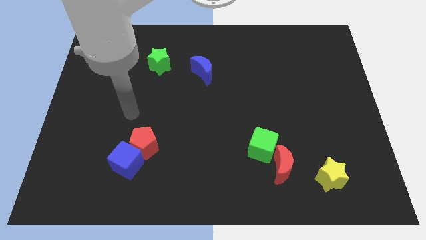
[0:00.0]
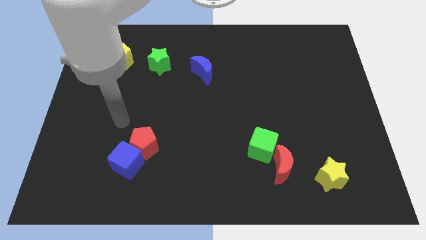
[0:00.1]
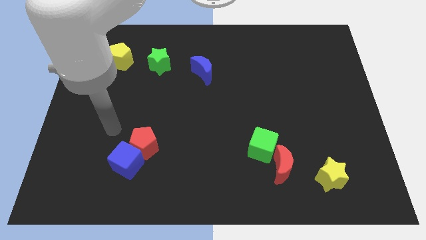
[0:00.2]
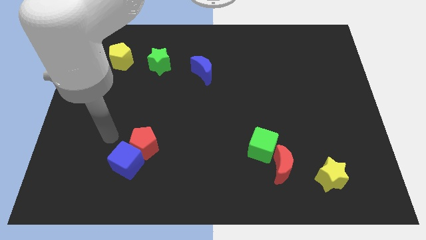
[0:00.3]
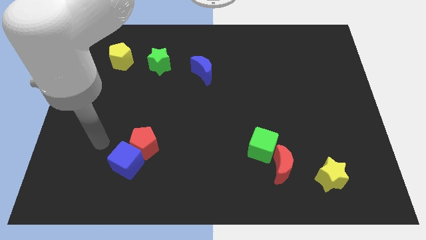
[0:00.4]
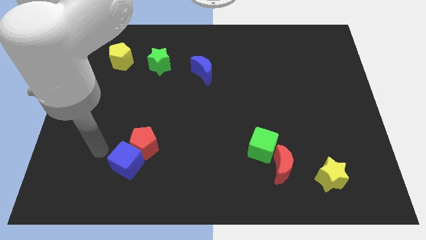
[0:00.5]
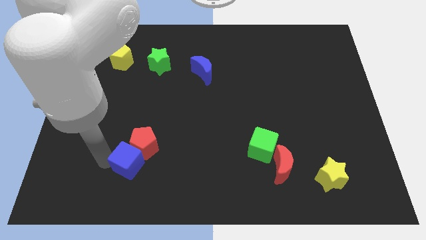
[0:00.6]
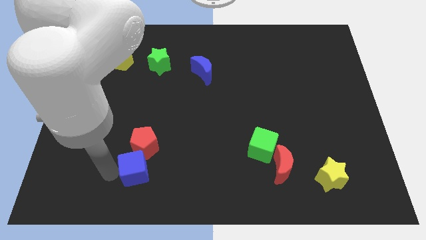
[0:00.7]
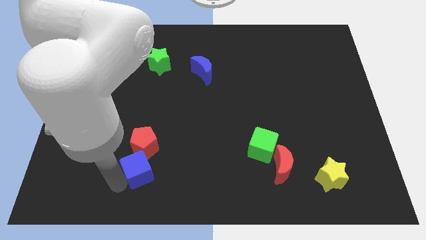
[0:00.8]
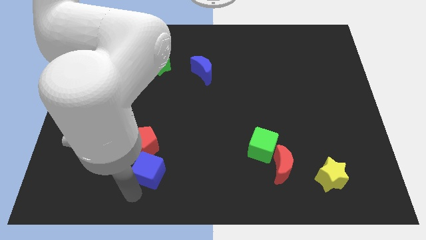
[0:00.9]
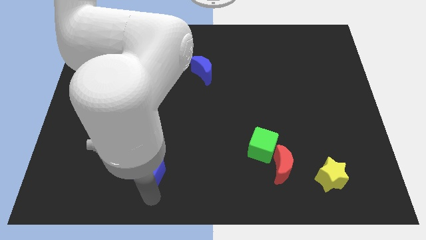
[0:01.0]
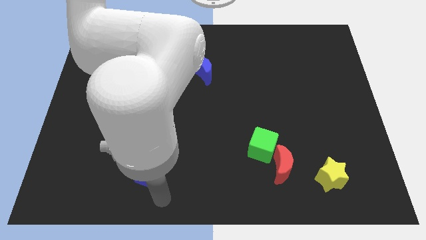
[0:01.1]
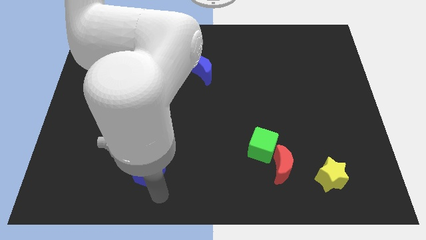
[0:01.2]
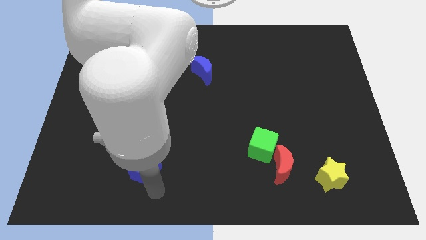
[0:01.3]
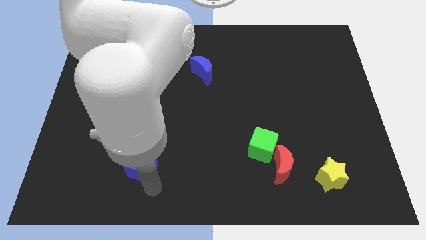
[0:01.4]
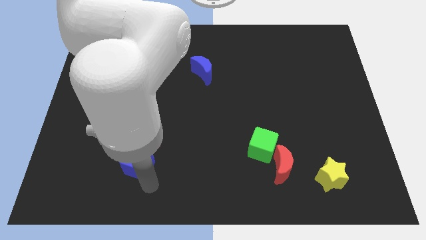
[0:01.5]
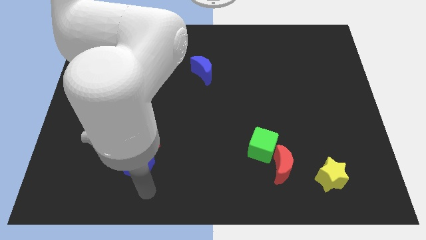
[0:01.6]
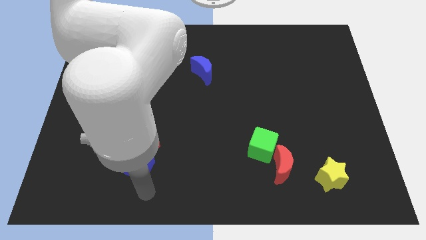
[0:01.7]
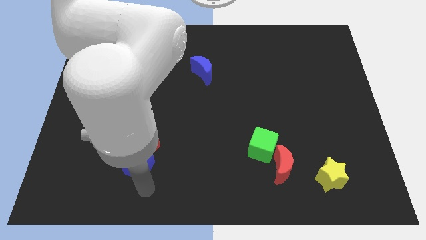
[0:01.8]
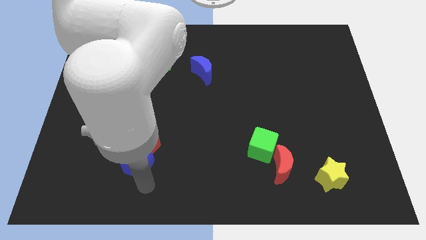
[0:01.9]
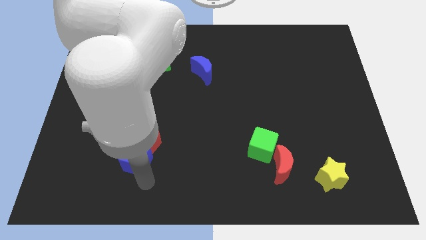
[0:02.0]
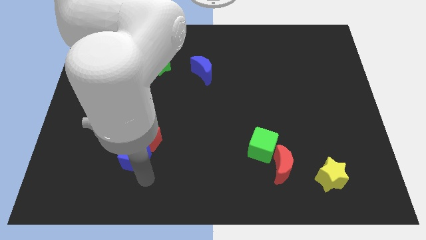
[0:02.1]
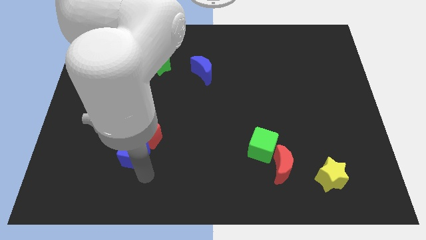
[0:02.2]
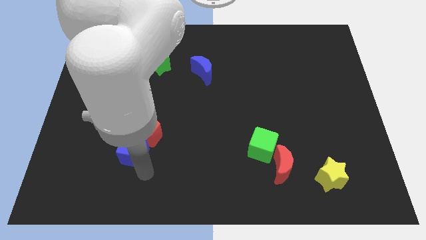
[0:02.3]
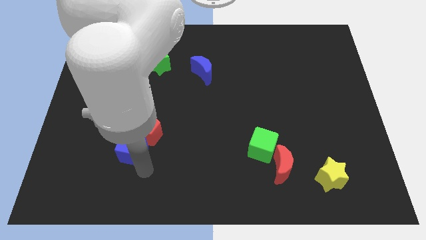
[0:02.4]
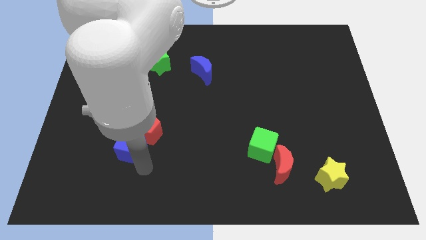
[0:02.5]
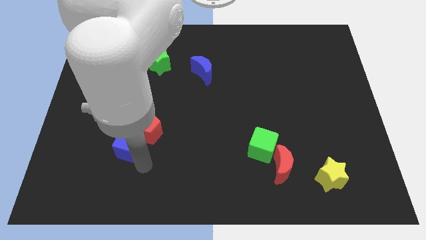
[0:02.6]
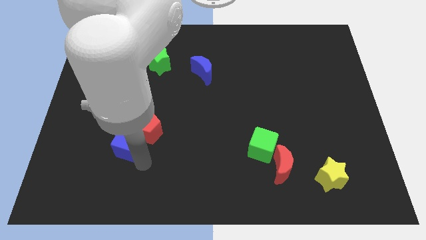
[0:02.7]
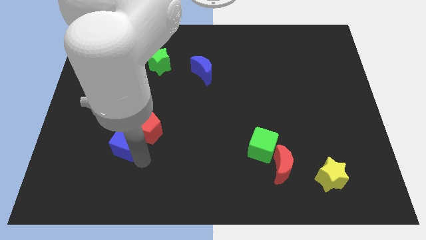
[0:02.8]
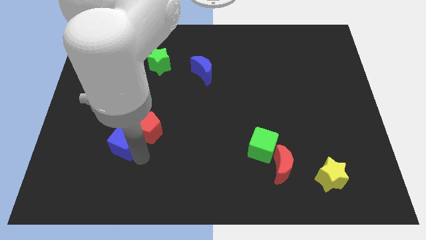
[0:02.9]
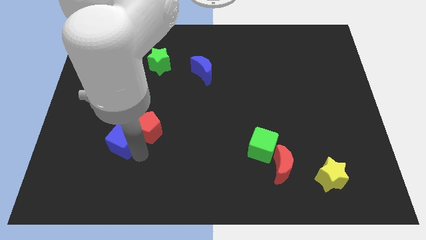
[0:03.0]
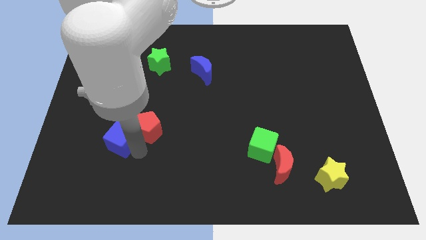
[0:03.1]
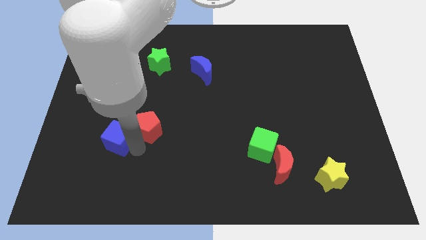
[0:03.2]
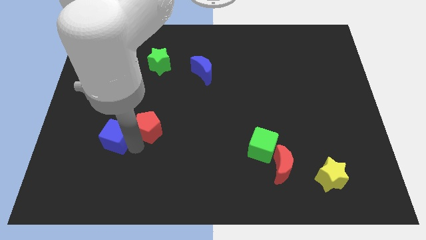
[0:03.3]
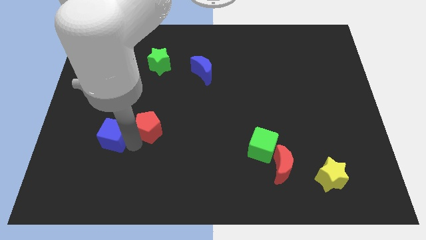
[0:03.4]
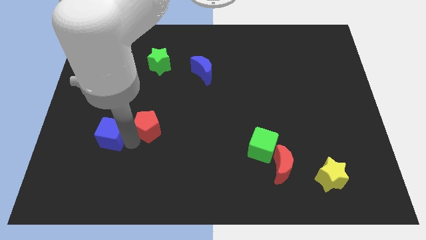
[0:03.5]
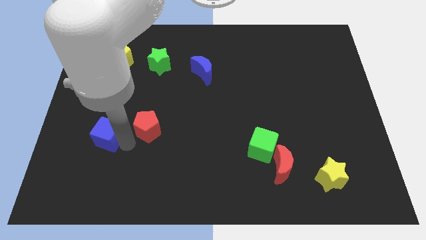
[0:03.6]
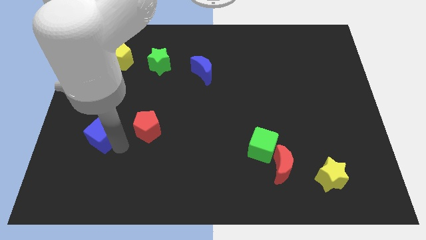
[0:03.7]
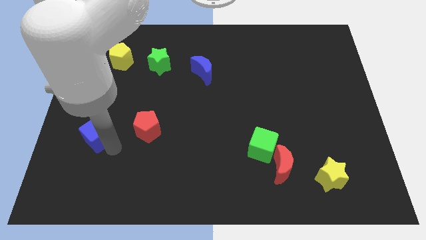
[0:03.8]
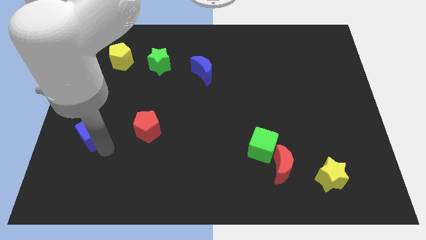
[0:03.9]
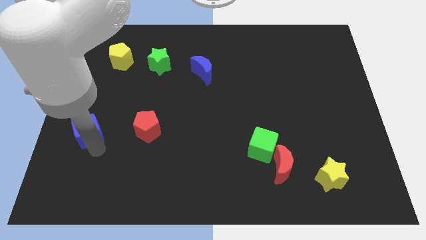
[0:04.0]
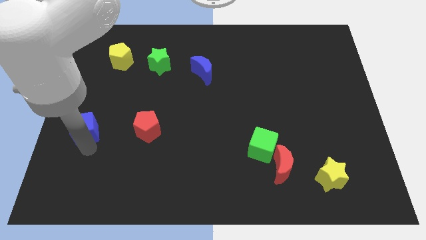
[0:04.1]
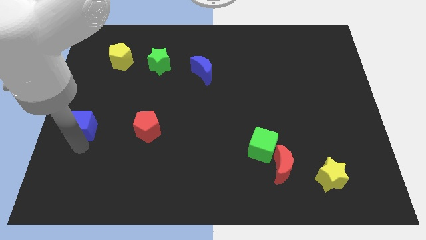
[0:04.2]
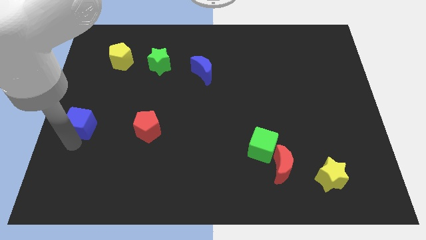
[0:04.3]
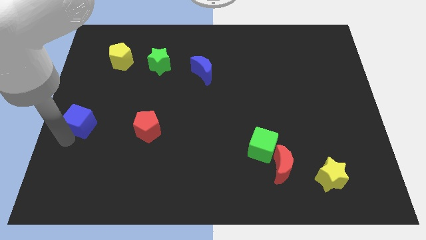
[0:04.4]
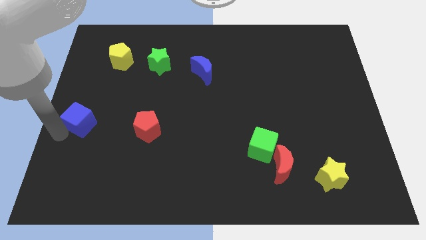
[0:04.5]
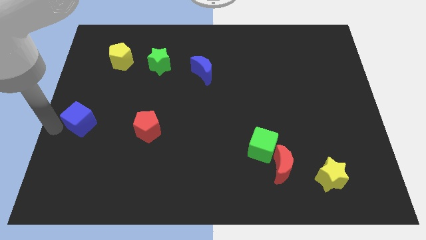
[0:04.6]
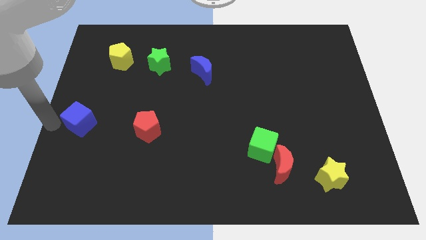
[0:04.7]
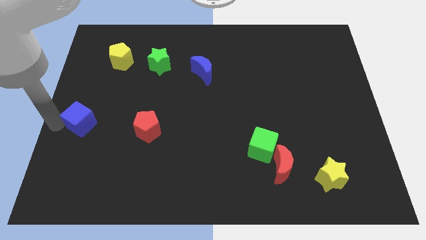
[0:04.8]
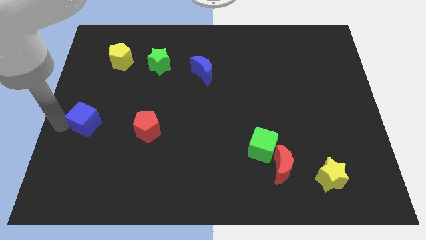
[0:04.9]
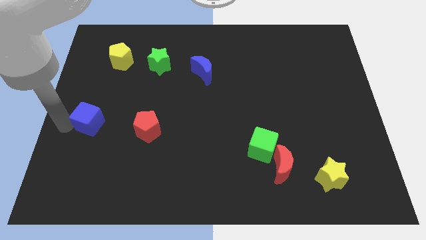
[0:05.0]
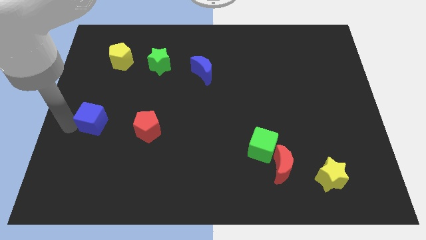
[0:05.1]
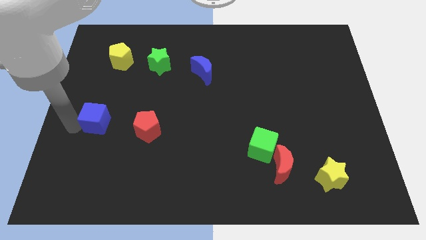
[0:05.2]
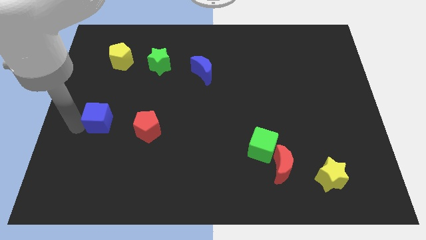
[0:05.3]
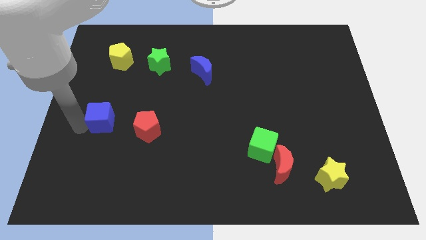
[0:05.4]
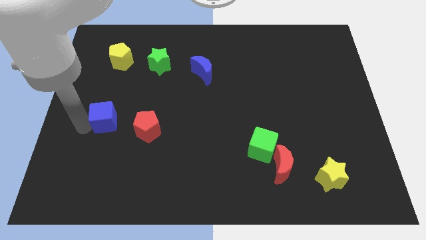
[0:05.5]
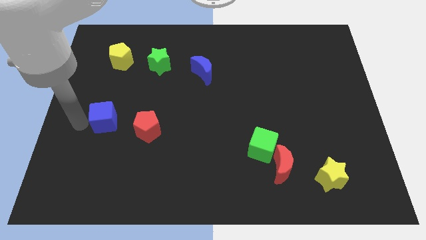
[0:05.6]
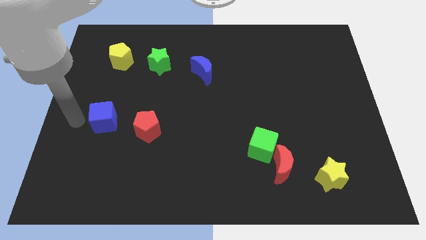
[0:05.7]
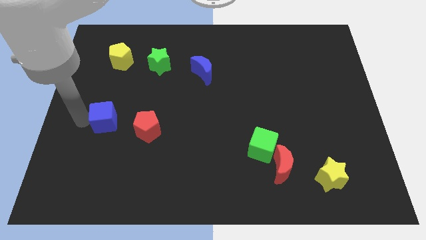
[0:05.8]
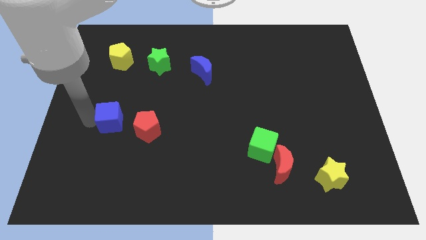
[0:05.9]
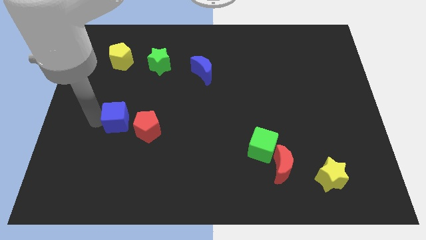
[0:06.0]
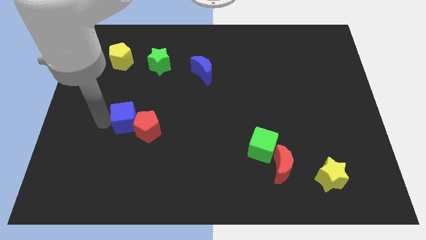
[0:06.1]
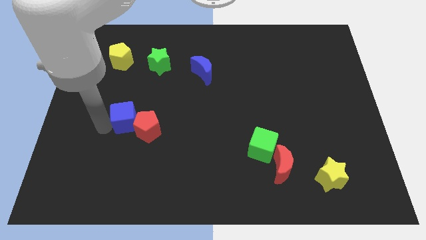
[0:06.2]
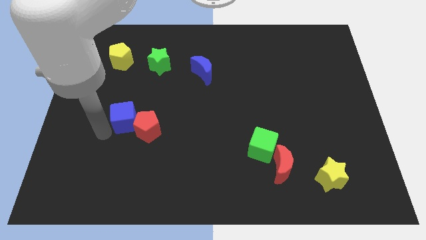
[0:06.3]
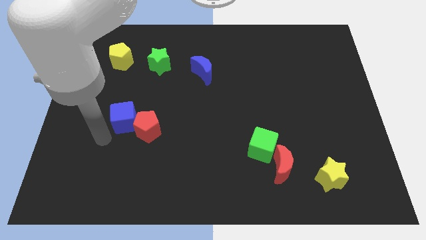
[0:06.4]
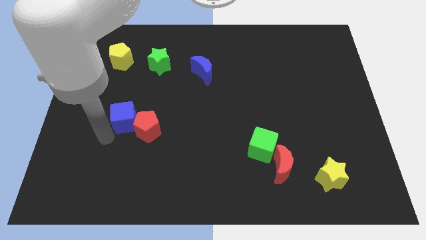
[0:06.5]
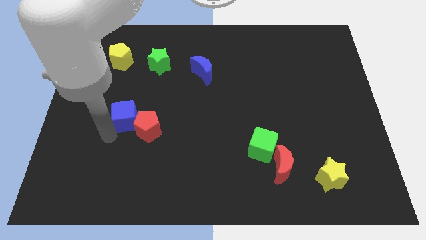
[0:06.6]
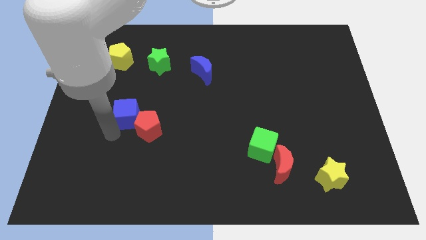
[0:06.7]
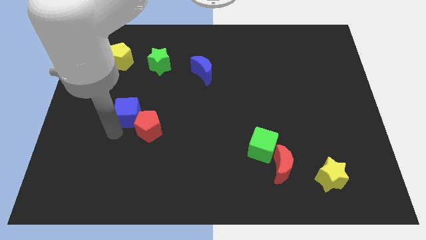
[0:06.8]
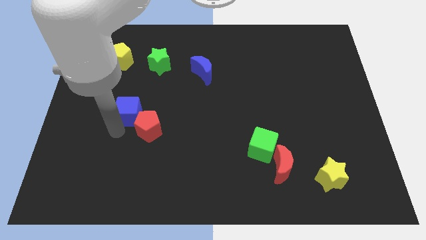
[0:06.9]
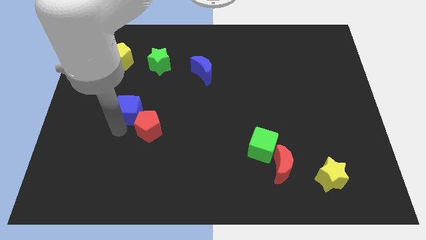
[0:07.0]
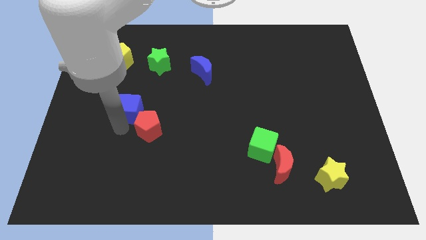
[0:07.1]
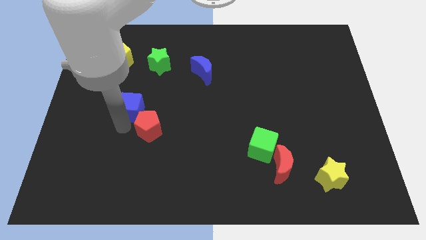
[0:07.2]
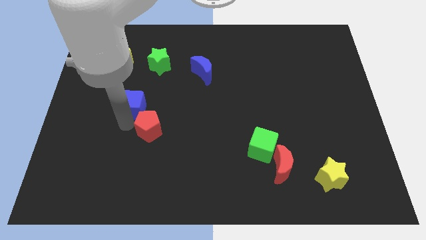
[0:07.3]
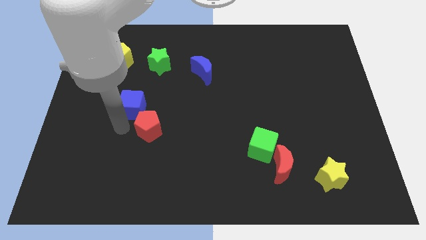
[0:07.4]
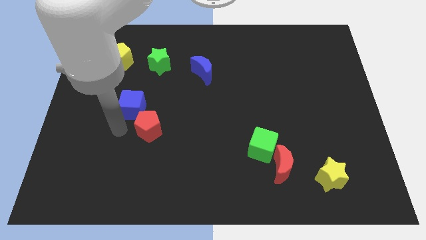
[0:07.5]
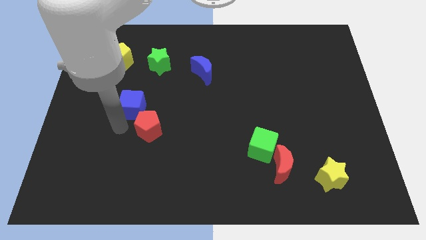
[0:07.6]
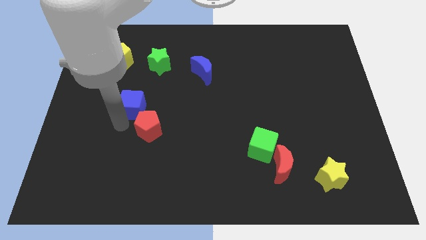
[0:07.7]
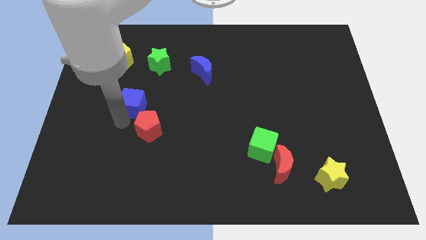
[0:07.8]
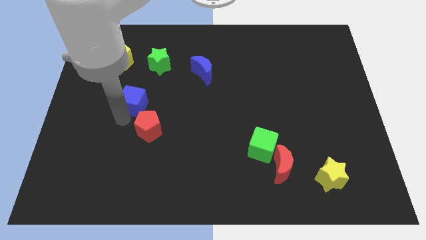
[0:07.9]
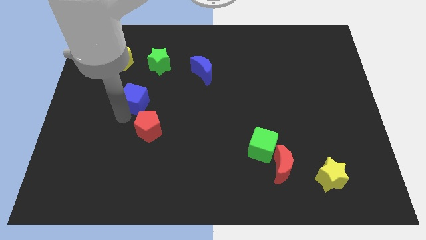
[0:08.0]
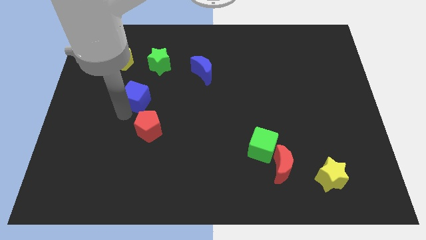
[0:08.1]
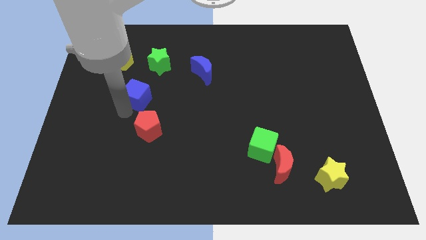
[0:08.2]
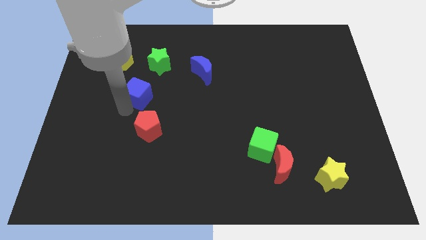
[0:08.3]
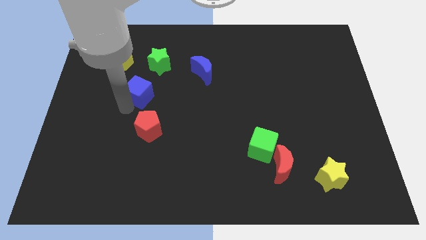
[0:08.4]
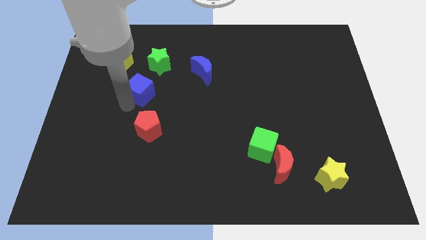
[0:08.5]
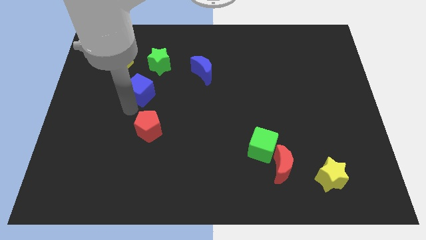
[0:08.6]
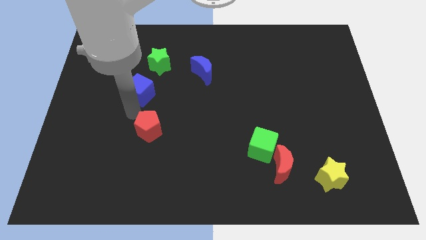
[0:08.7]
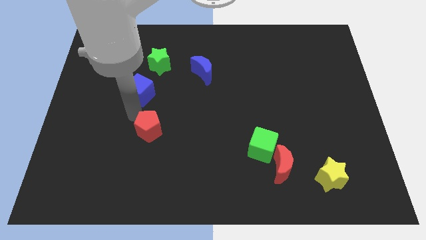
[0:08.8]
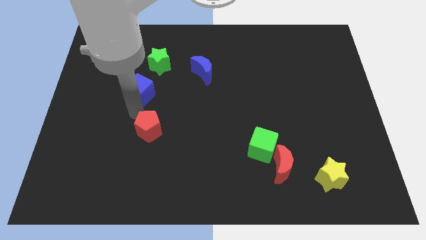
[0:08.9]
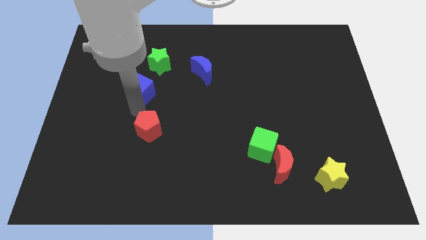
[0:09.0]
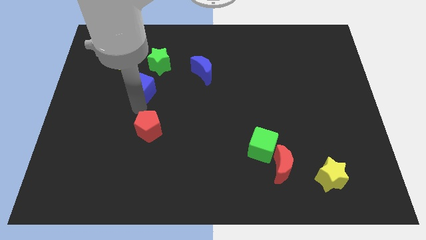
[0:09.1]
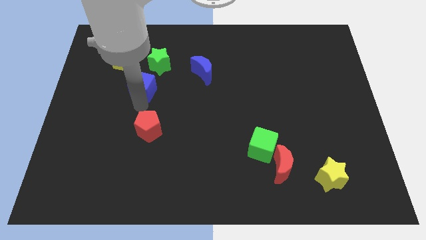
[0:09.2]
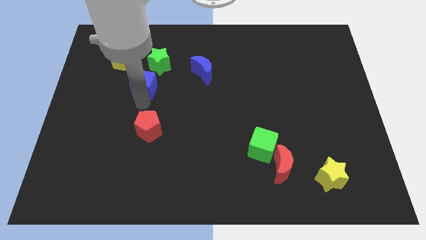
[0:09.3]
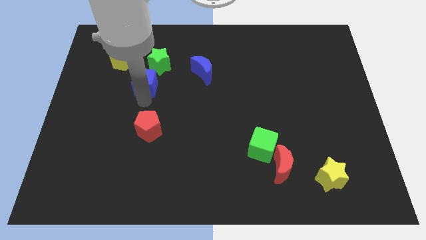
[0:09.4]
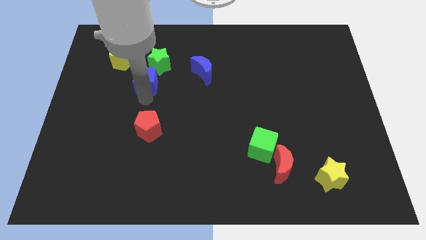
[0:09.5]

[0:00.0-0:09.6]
put the blue cube to the left side of the blue moon
